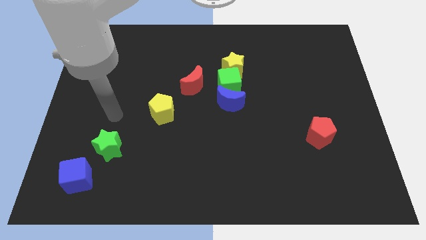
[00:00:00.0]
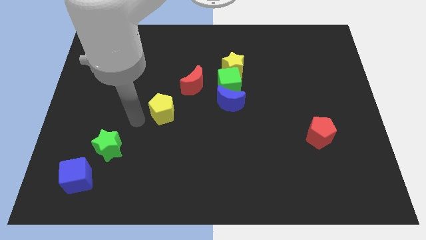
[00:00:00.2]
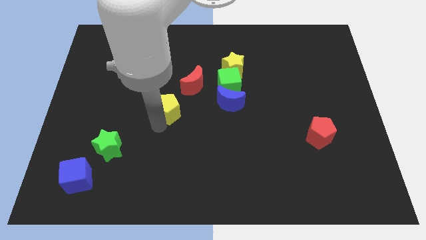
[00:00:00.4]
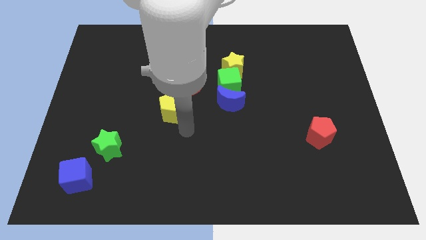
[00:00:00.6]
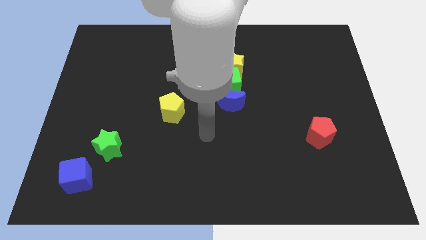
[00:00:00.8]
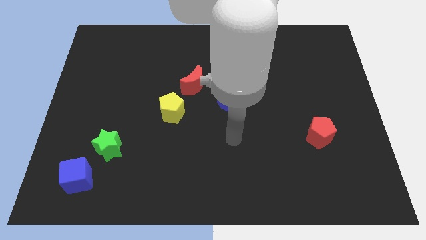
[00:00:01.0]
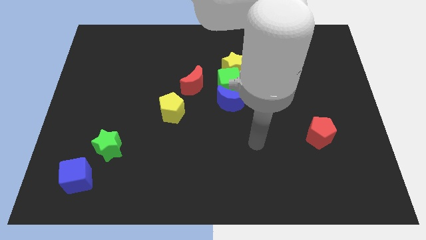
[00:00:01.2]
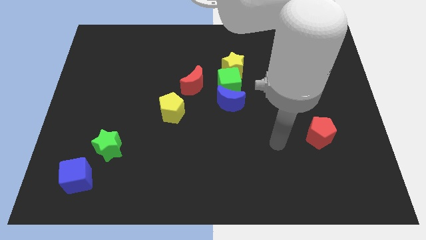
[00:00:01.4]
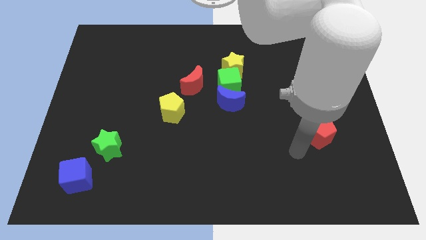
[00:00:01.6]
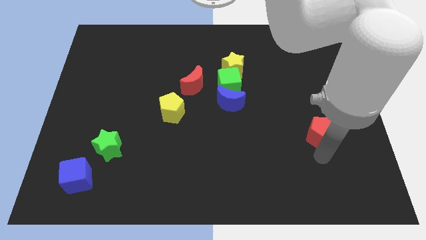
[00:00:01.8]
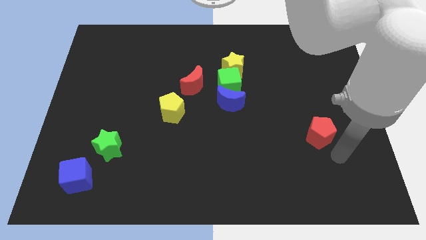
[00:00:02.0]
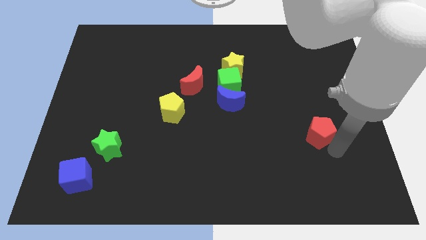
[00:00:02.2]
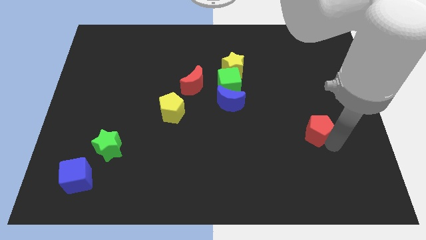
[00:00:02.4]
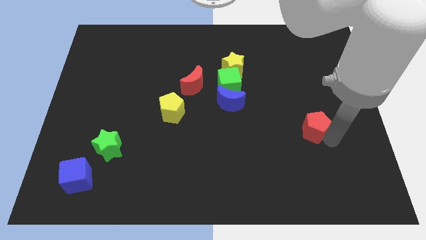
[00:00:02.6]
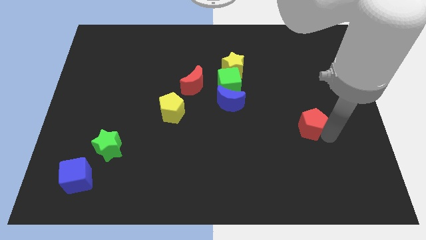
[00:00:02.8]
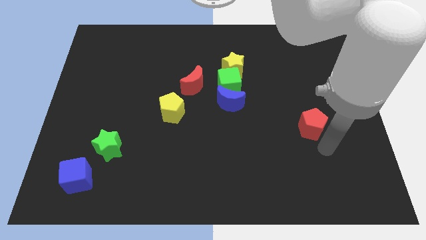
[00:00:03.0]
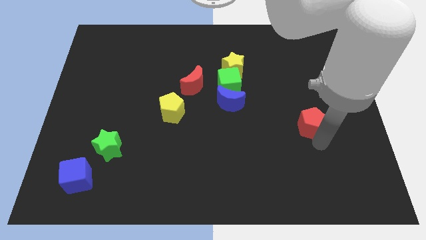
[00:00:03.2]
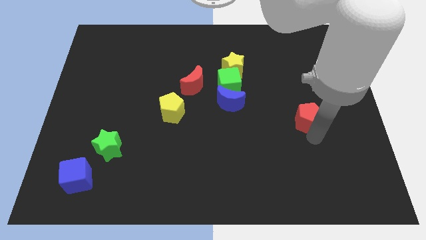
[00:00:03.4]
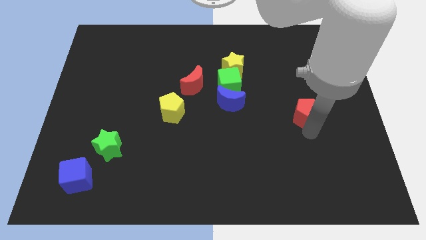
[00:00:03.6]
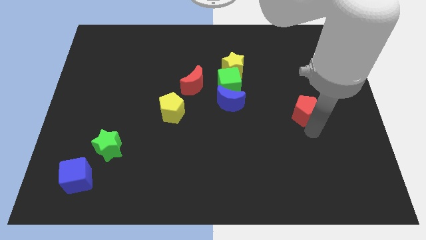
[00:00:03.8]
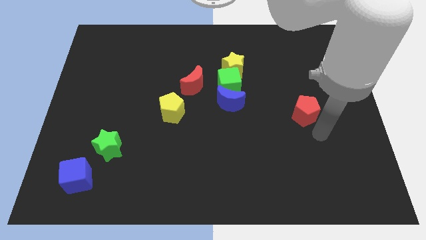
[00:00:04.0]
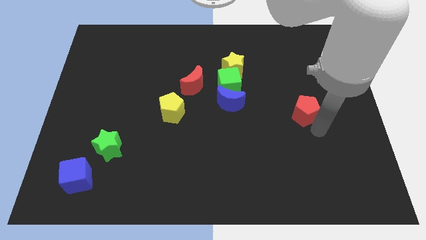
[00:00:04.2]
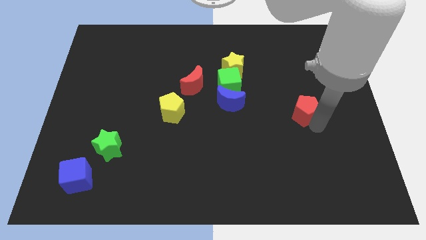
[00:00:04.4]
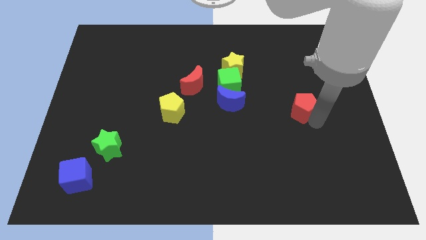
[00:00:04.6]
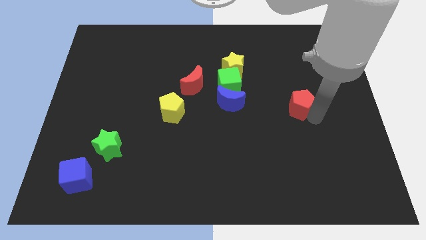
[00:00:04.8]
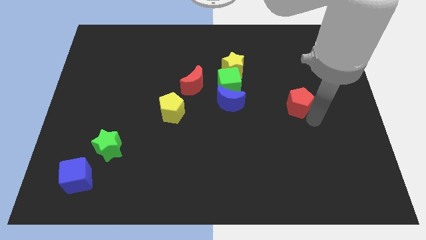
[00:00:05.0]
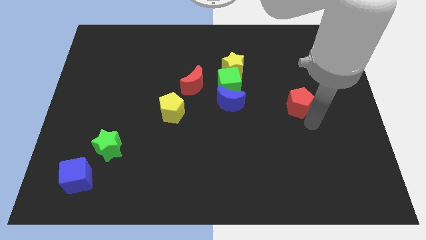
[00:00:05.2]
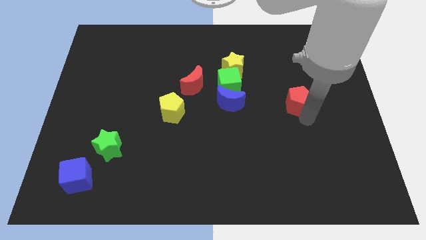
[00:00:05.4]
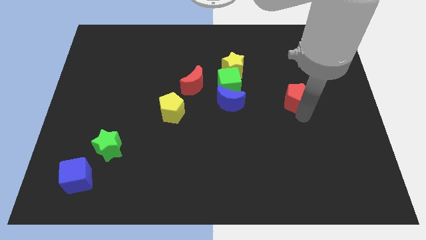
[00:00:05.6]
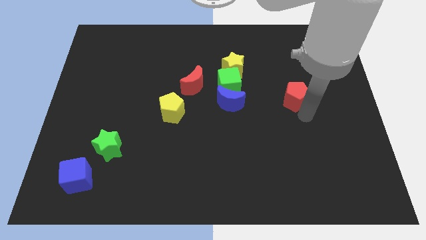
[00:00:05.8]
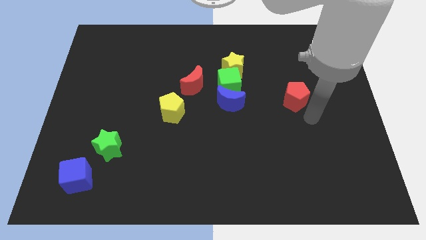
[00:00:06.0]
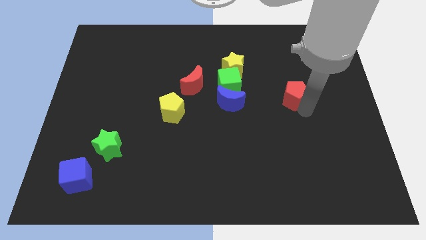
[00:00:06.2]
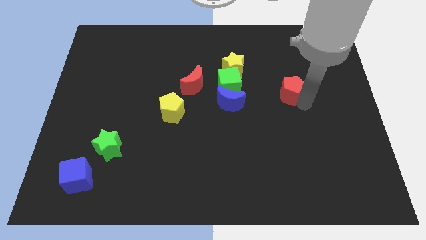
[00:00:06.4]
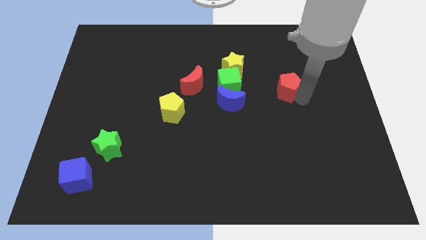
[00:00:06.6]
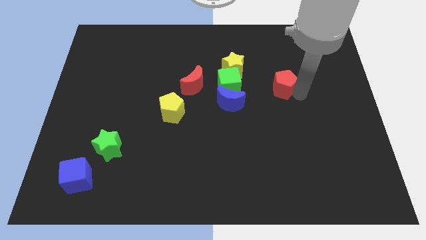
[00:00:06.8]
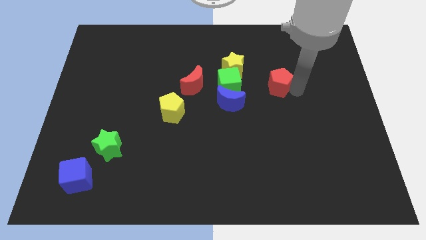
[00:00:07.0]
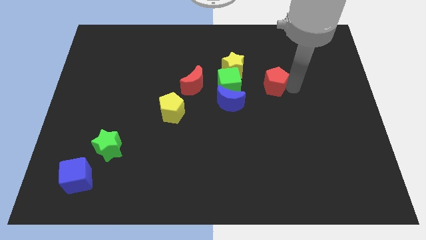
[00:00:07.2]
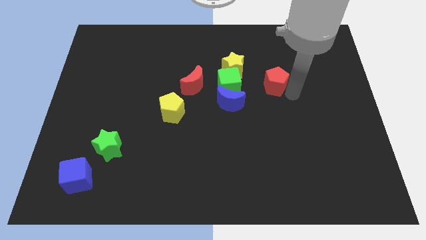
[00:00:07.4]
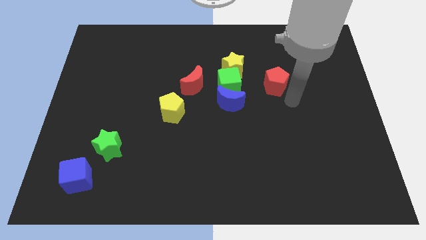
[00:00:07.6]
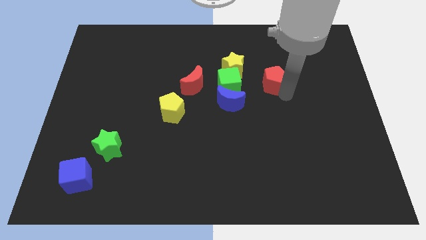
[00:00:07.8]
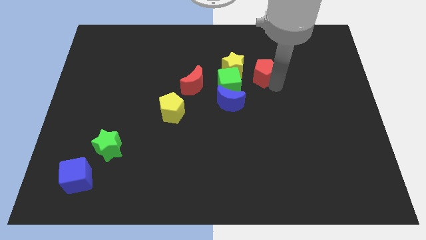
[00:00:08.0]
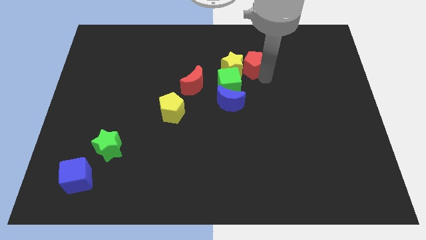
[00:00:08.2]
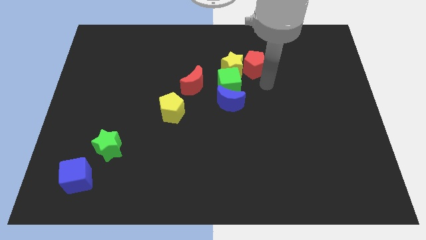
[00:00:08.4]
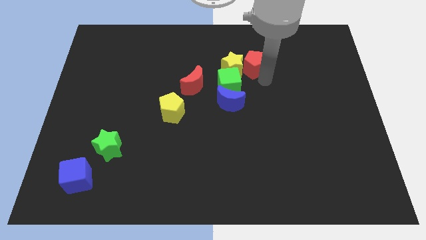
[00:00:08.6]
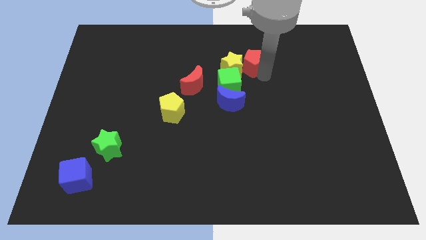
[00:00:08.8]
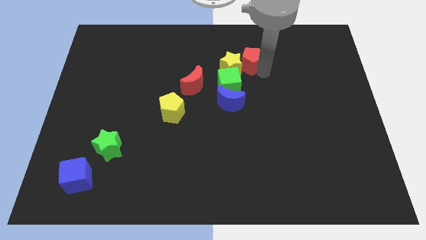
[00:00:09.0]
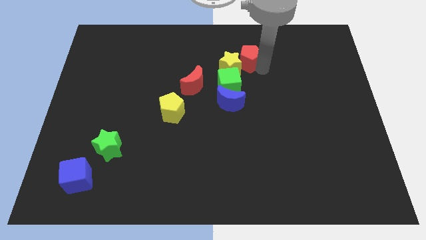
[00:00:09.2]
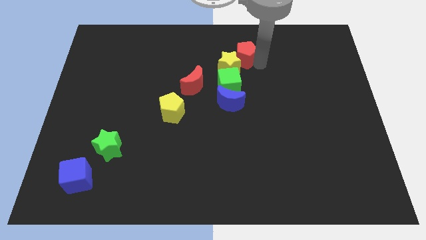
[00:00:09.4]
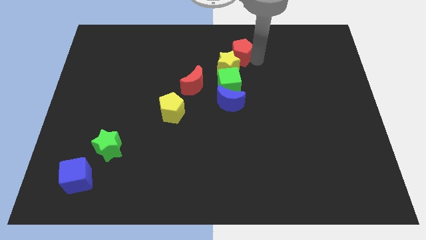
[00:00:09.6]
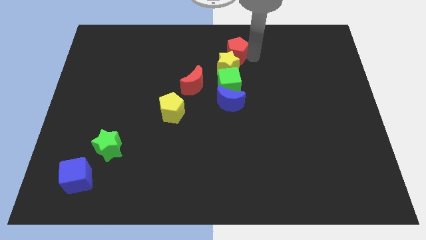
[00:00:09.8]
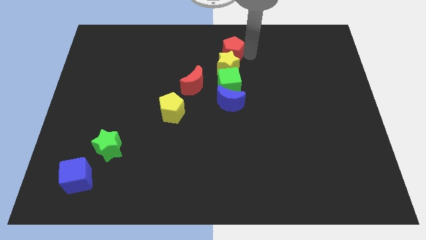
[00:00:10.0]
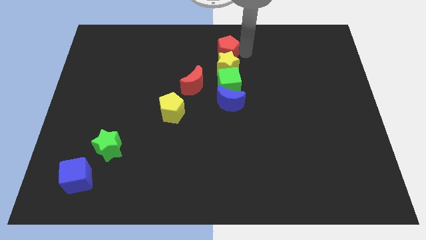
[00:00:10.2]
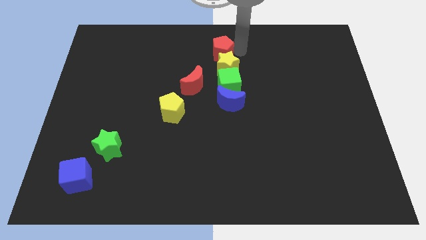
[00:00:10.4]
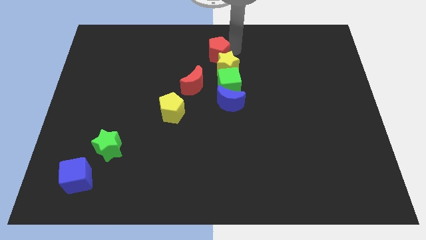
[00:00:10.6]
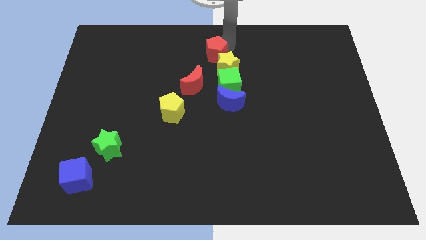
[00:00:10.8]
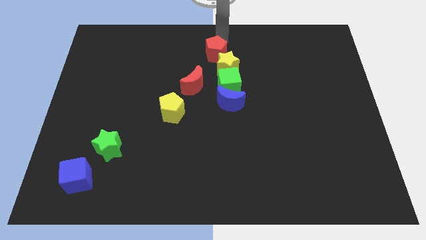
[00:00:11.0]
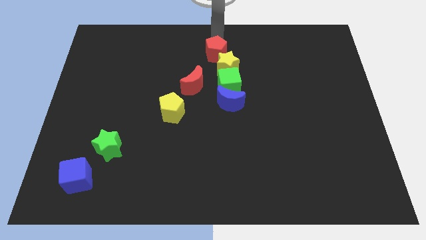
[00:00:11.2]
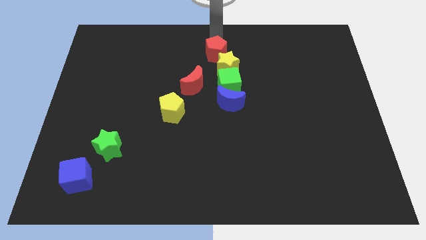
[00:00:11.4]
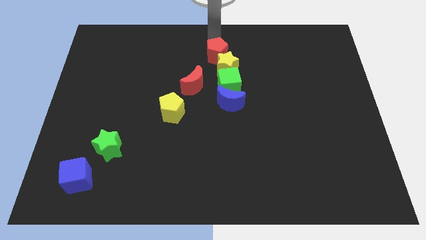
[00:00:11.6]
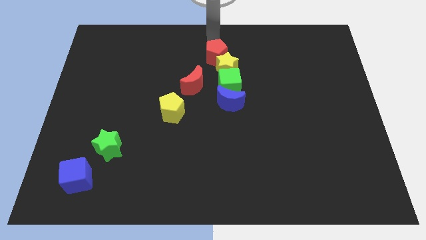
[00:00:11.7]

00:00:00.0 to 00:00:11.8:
put the red pentagon to the top right side of the red moon

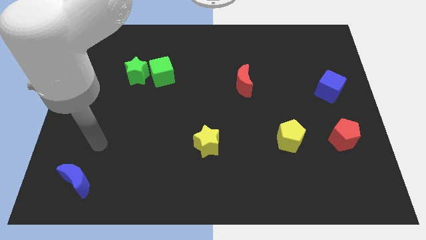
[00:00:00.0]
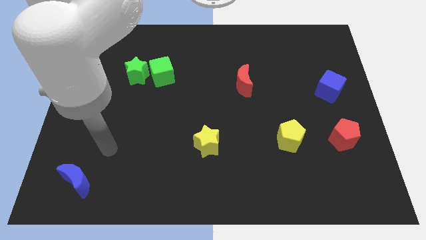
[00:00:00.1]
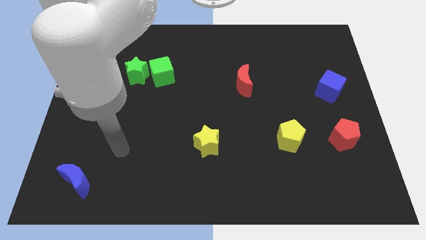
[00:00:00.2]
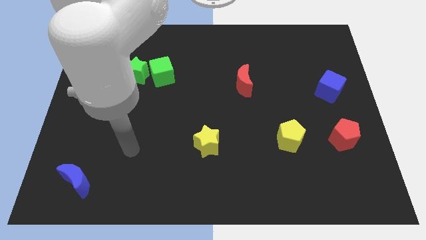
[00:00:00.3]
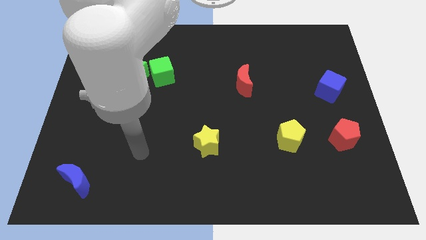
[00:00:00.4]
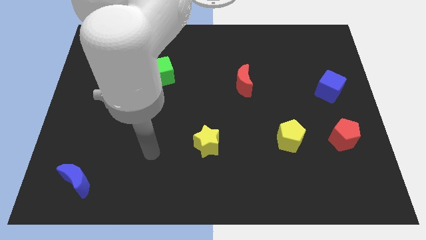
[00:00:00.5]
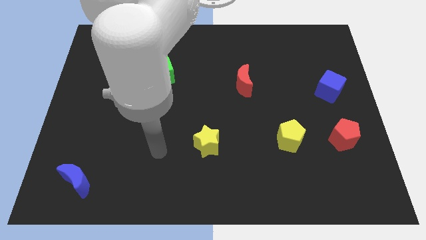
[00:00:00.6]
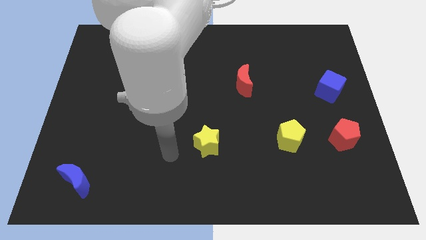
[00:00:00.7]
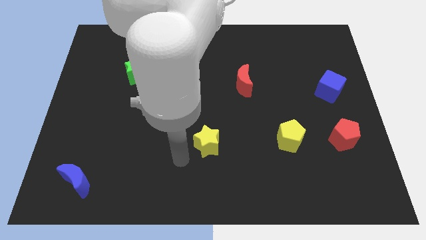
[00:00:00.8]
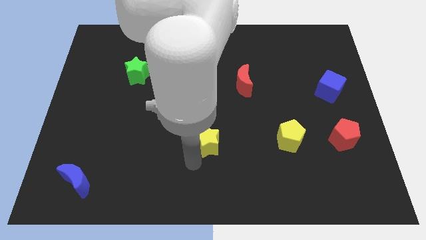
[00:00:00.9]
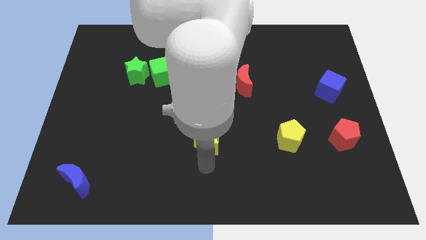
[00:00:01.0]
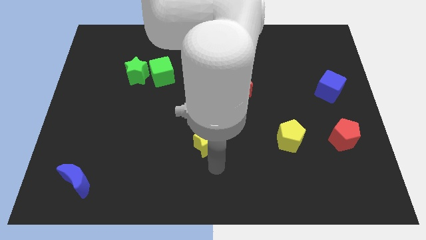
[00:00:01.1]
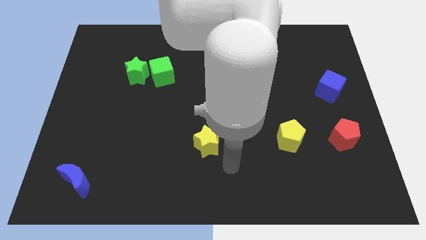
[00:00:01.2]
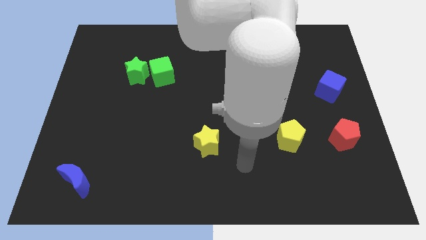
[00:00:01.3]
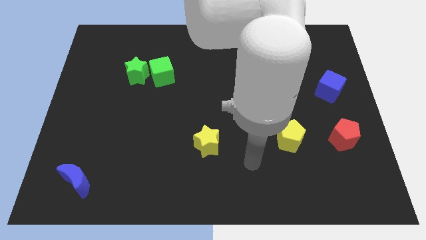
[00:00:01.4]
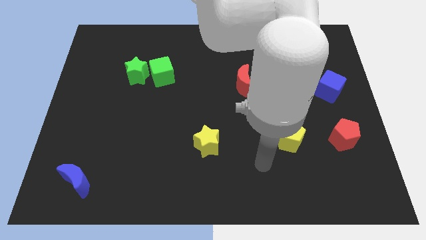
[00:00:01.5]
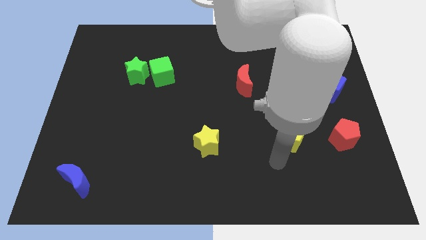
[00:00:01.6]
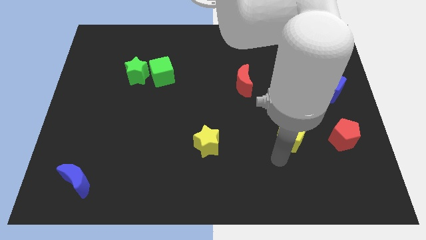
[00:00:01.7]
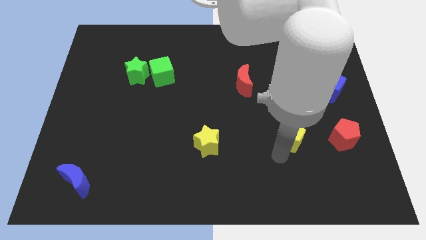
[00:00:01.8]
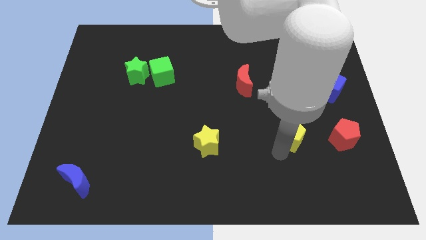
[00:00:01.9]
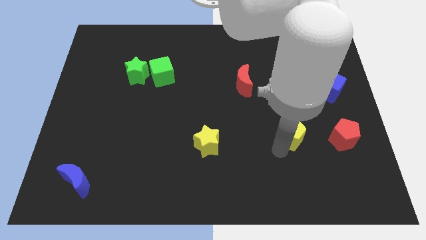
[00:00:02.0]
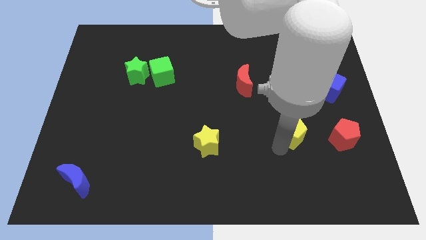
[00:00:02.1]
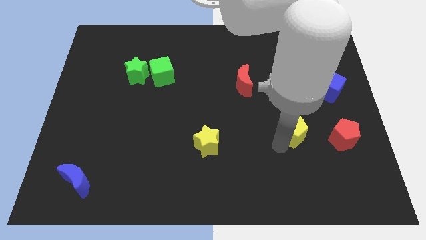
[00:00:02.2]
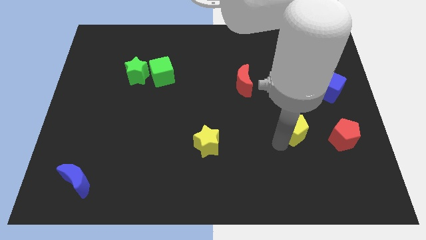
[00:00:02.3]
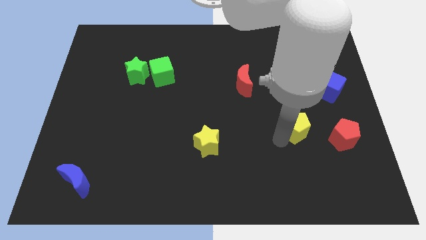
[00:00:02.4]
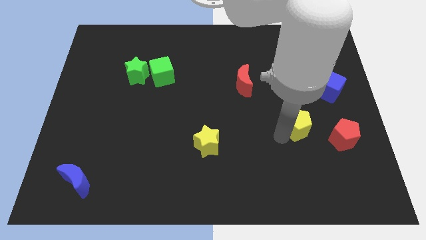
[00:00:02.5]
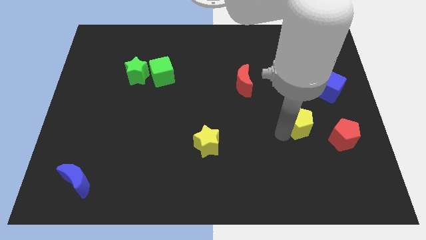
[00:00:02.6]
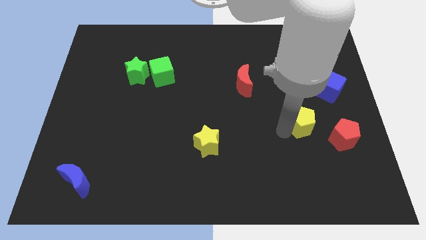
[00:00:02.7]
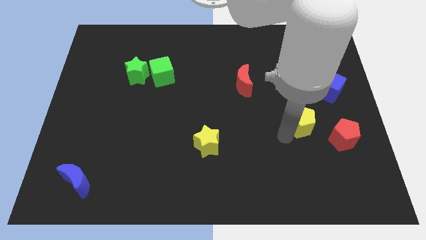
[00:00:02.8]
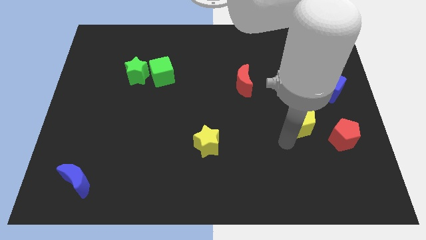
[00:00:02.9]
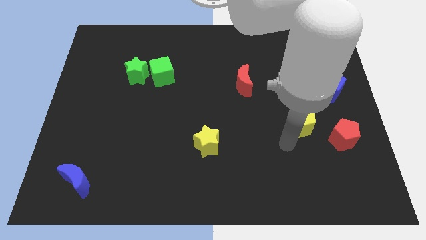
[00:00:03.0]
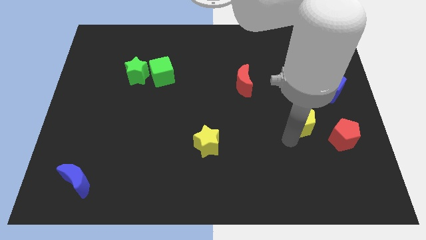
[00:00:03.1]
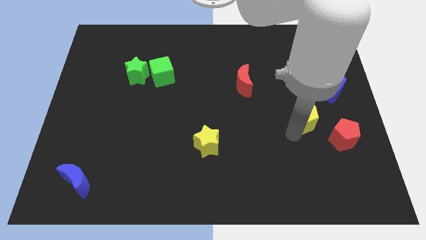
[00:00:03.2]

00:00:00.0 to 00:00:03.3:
push the yellow pentagon to the bottom left of the blue cube
